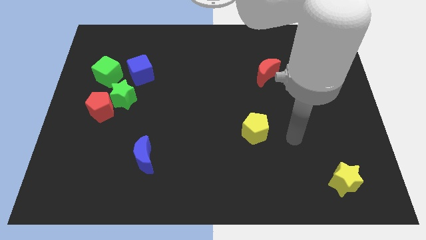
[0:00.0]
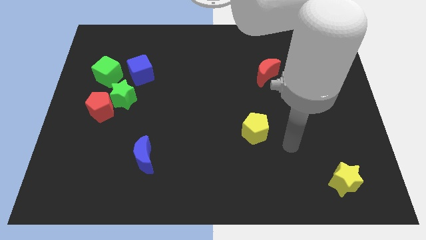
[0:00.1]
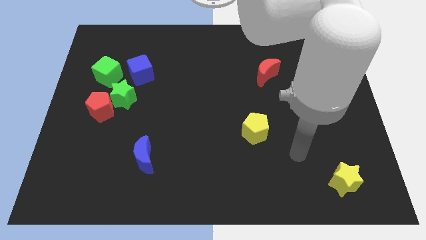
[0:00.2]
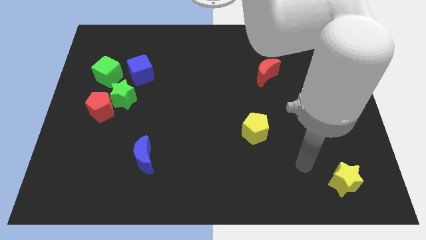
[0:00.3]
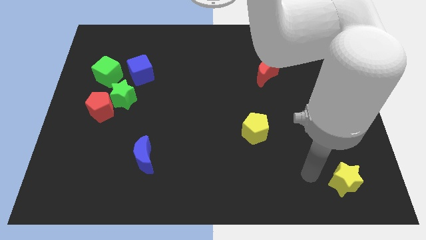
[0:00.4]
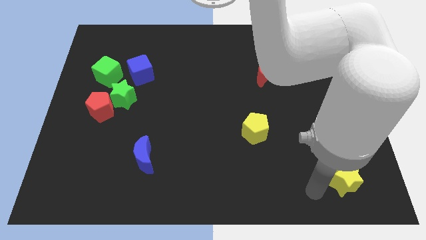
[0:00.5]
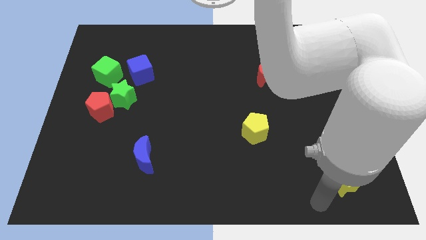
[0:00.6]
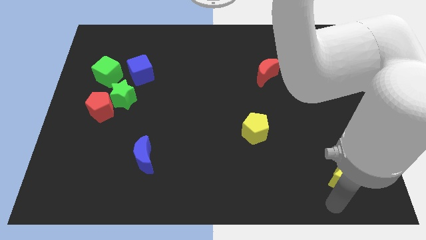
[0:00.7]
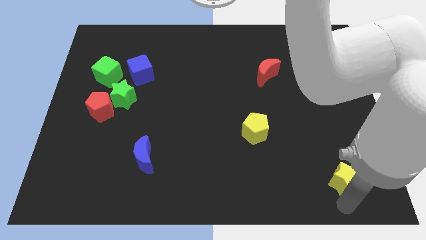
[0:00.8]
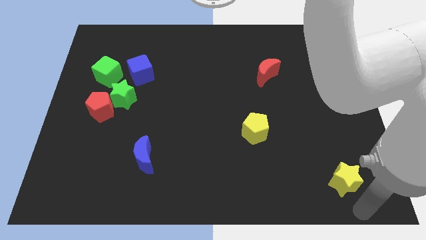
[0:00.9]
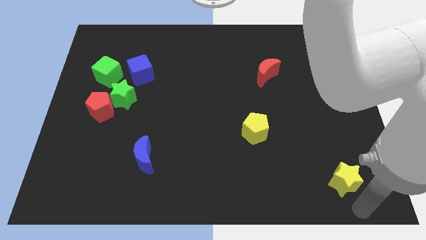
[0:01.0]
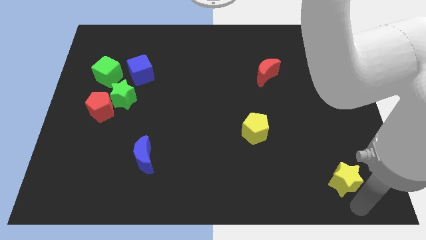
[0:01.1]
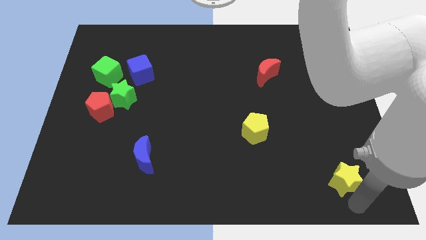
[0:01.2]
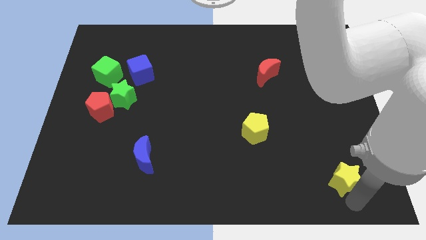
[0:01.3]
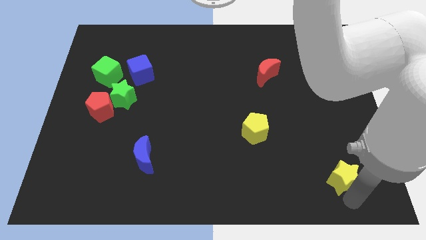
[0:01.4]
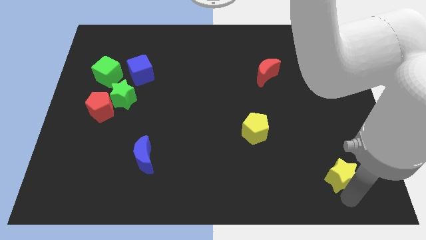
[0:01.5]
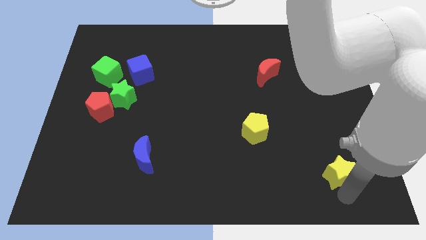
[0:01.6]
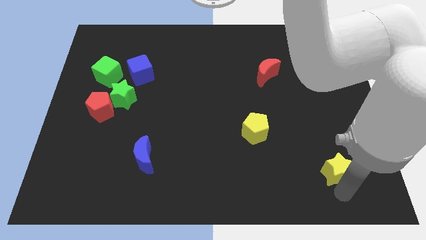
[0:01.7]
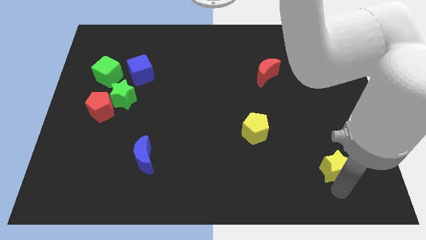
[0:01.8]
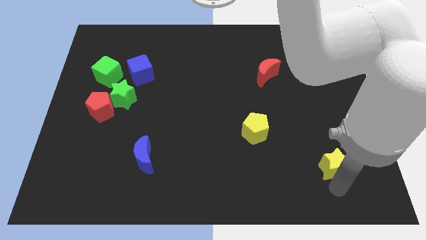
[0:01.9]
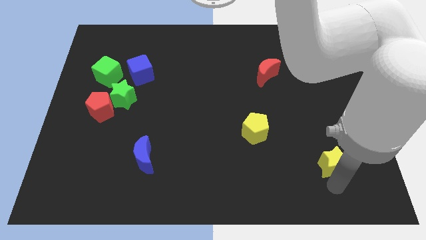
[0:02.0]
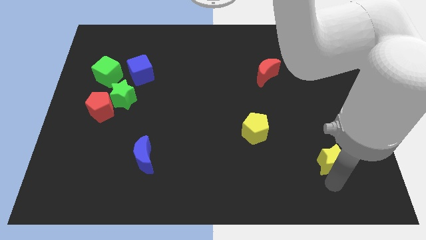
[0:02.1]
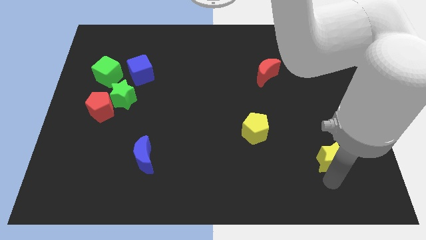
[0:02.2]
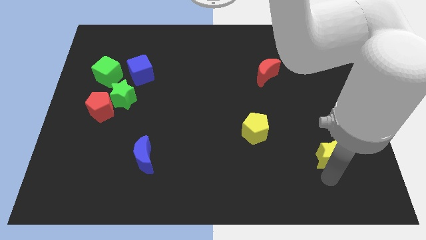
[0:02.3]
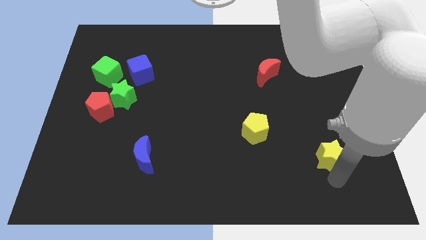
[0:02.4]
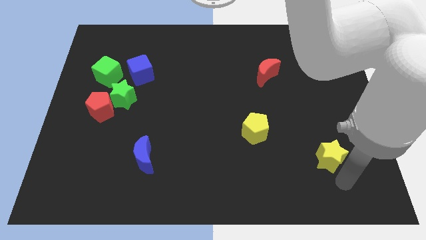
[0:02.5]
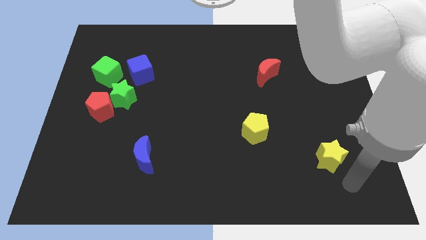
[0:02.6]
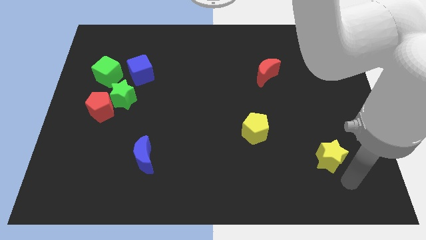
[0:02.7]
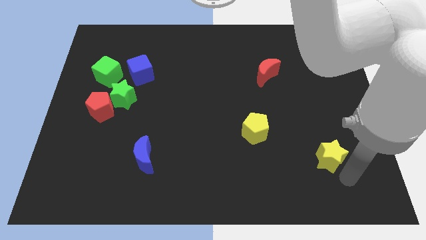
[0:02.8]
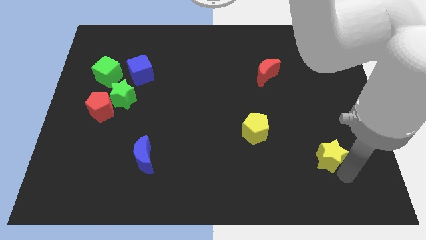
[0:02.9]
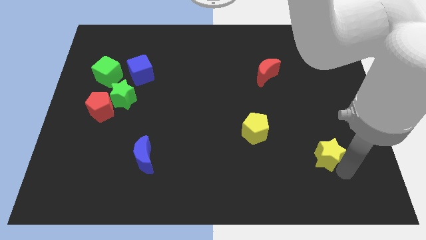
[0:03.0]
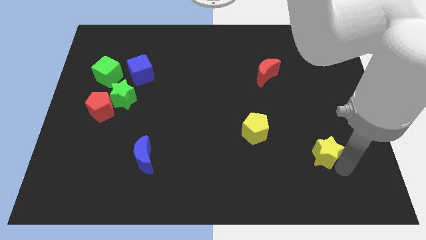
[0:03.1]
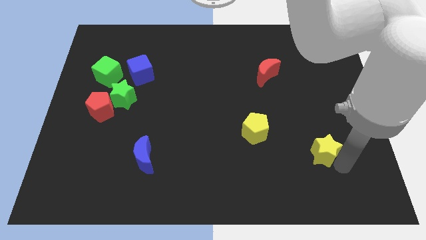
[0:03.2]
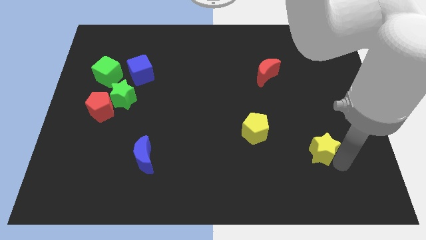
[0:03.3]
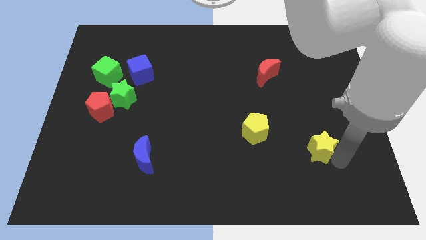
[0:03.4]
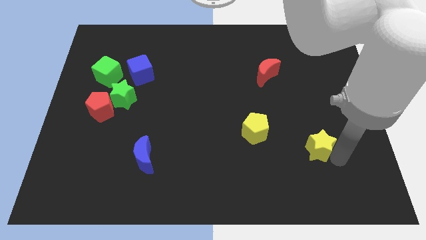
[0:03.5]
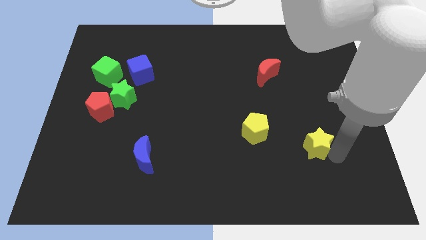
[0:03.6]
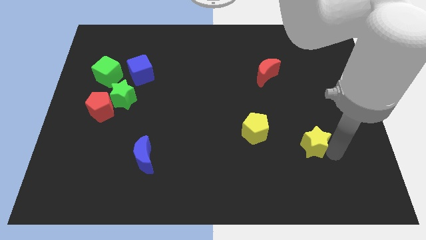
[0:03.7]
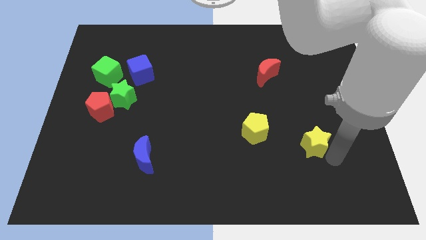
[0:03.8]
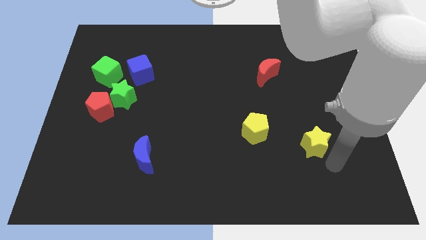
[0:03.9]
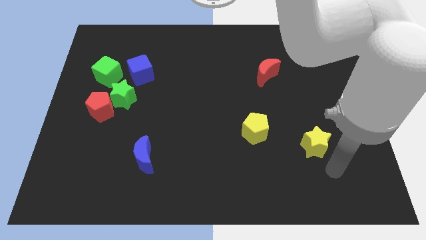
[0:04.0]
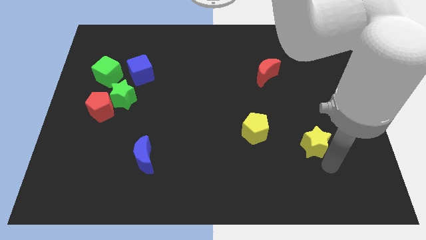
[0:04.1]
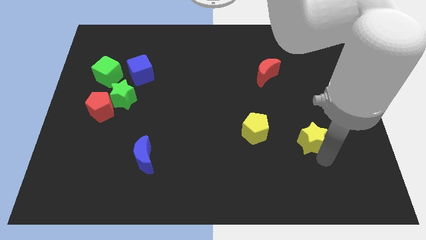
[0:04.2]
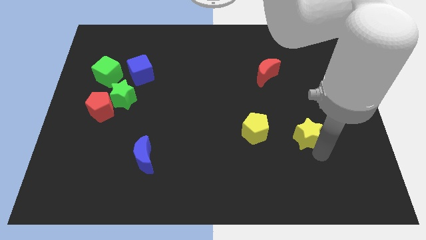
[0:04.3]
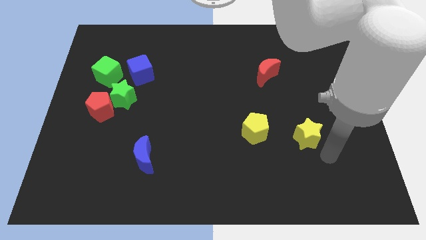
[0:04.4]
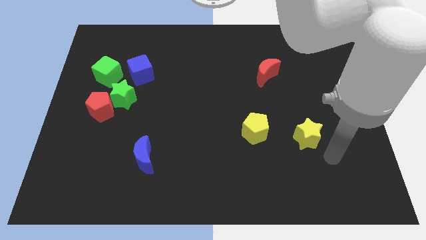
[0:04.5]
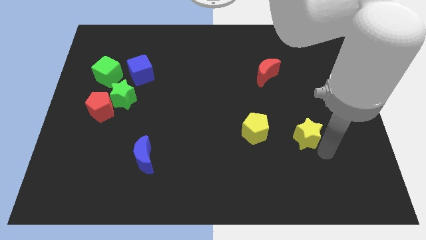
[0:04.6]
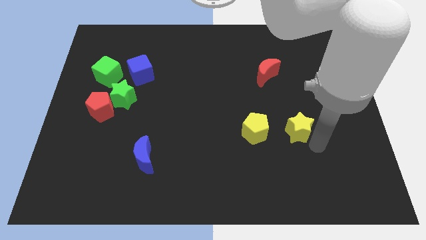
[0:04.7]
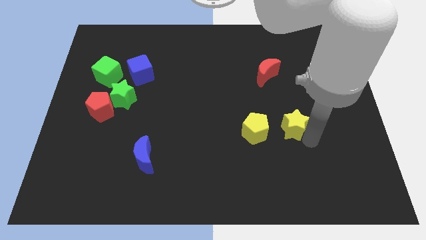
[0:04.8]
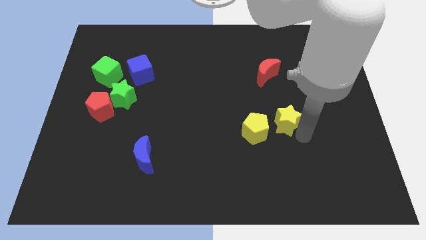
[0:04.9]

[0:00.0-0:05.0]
move the yellow star to the top right side of the yellow pentagon

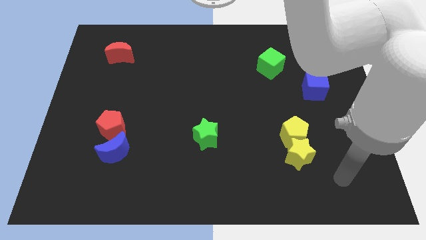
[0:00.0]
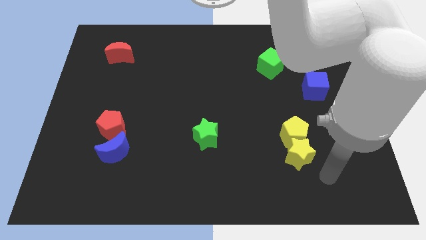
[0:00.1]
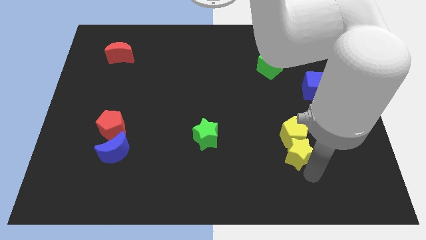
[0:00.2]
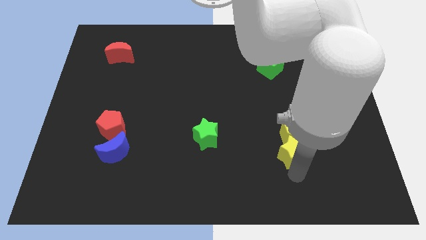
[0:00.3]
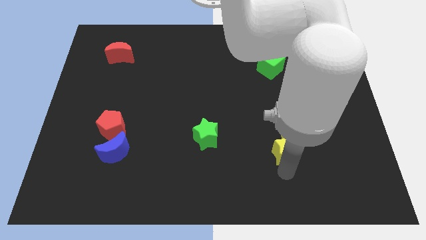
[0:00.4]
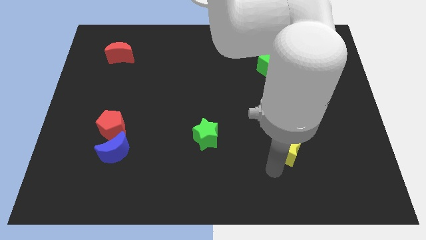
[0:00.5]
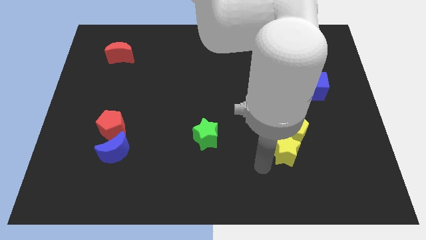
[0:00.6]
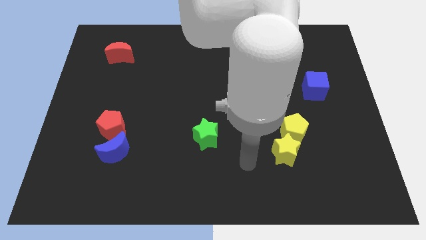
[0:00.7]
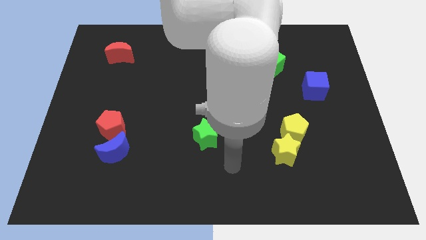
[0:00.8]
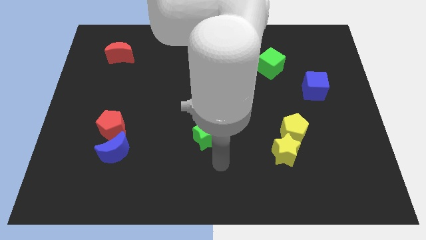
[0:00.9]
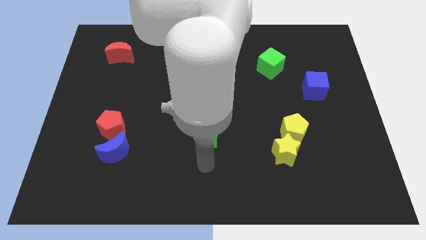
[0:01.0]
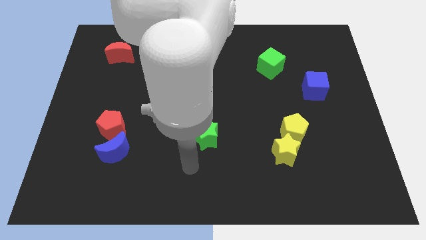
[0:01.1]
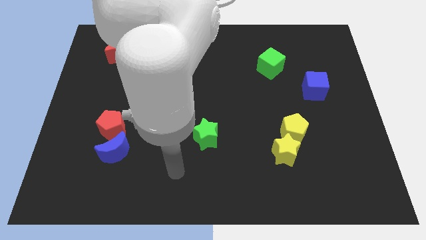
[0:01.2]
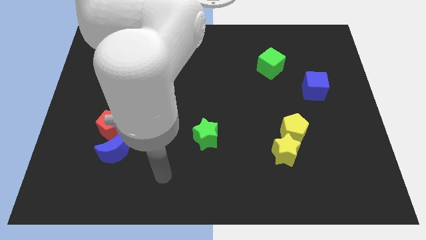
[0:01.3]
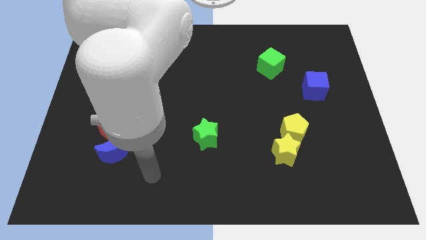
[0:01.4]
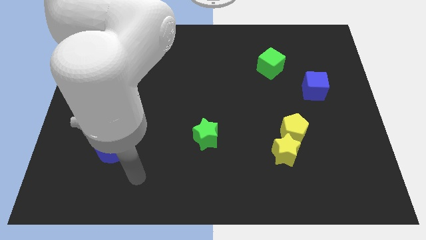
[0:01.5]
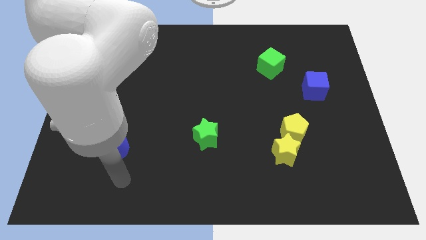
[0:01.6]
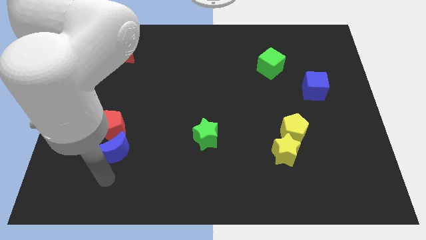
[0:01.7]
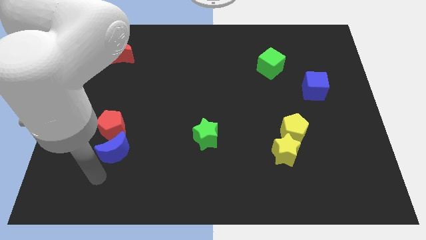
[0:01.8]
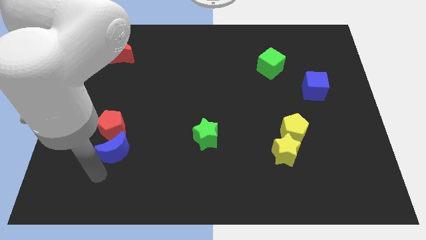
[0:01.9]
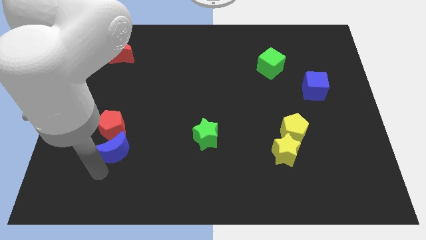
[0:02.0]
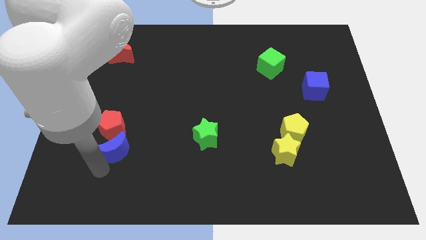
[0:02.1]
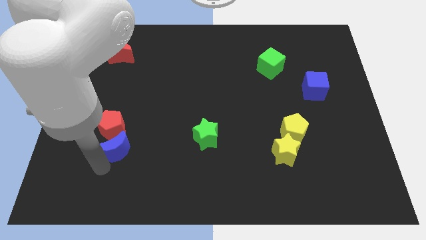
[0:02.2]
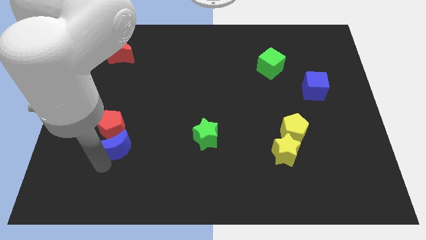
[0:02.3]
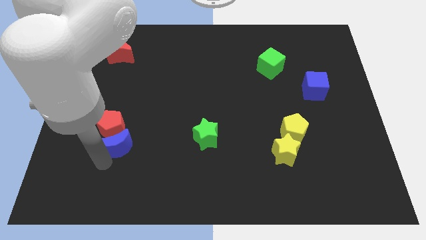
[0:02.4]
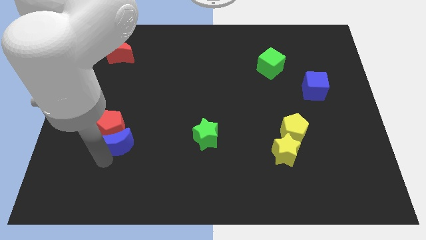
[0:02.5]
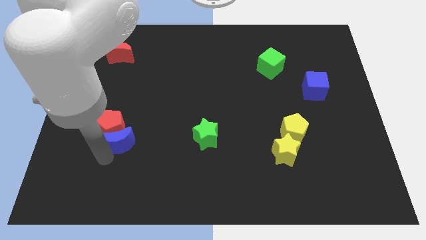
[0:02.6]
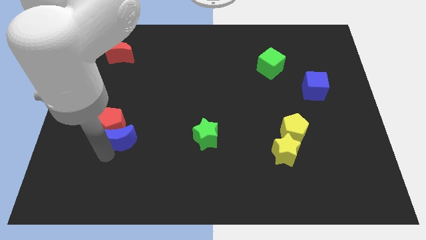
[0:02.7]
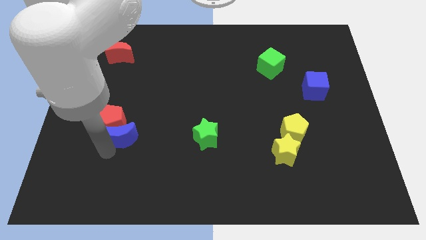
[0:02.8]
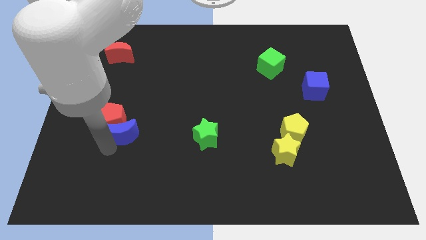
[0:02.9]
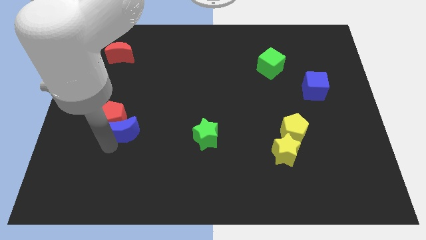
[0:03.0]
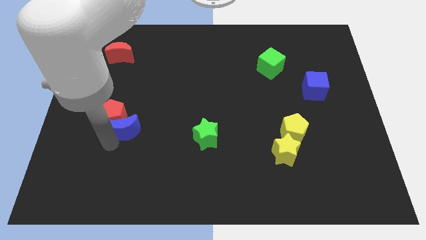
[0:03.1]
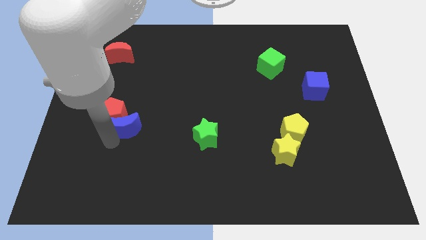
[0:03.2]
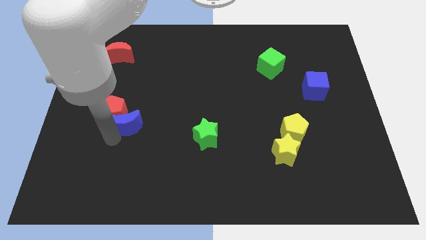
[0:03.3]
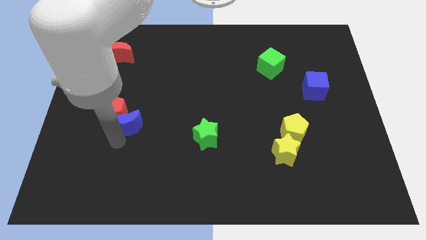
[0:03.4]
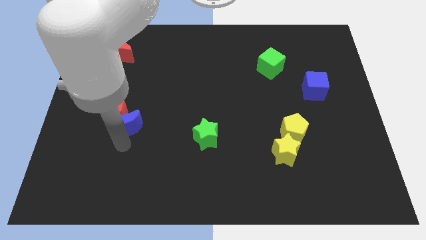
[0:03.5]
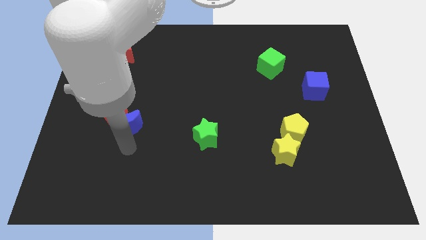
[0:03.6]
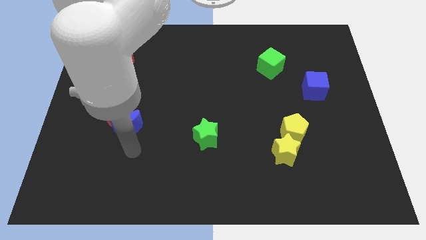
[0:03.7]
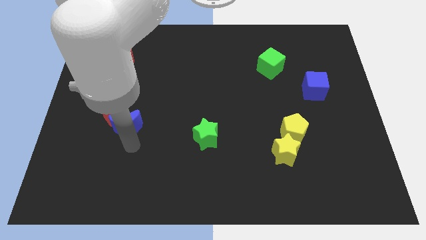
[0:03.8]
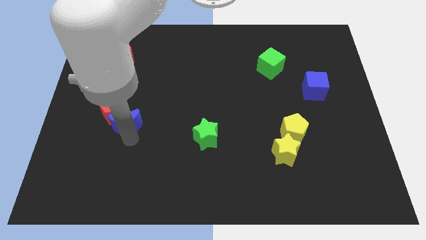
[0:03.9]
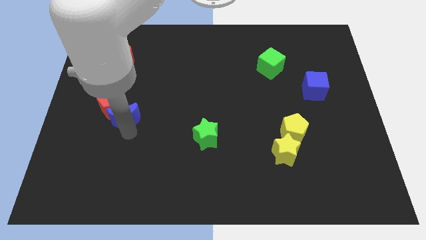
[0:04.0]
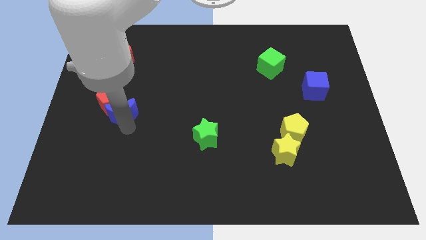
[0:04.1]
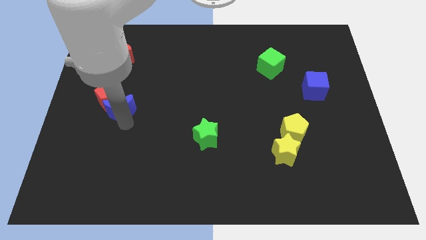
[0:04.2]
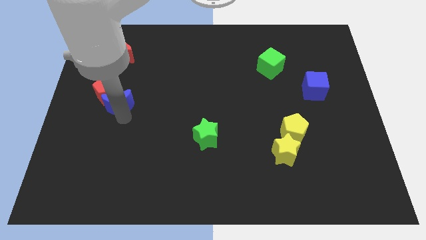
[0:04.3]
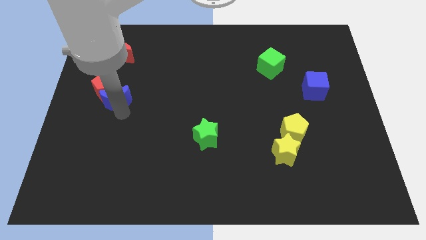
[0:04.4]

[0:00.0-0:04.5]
push the blue moon to the bottom of the red moon
